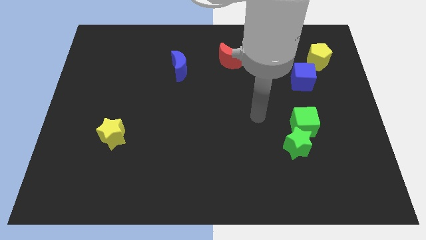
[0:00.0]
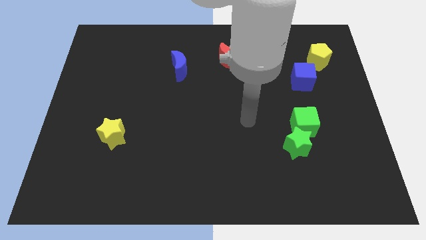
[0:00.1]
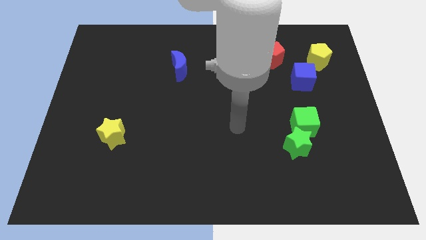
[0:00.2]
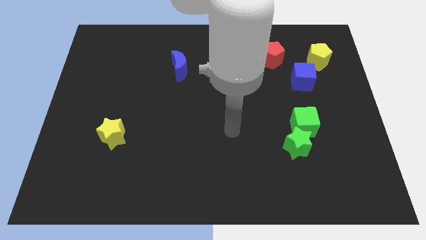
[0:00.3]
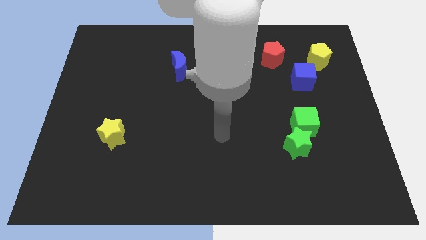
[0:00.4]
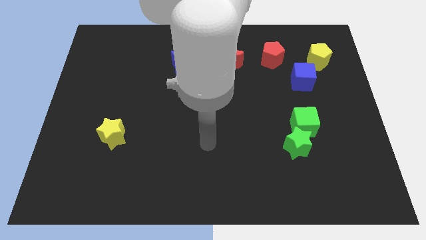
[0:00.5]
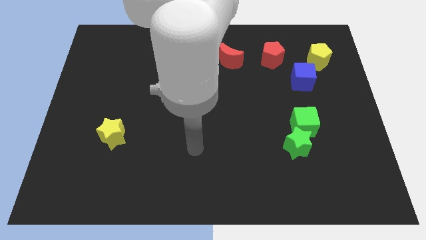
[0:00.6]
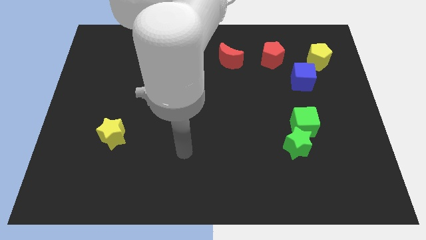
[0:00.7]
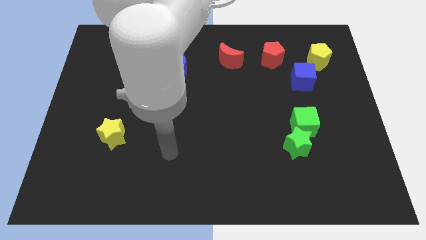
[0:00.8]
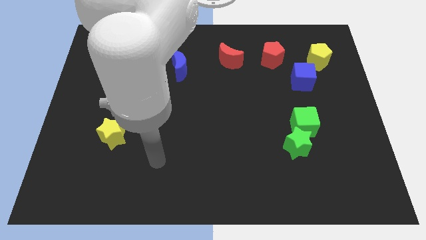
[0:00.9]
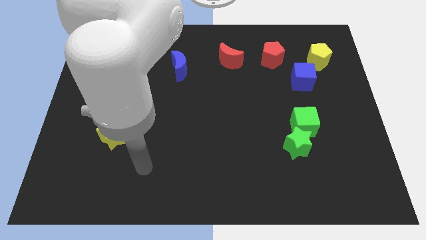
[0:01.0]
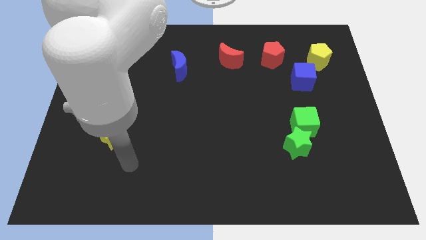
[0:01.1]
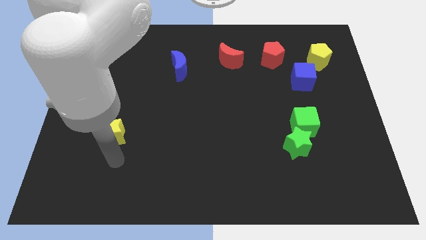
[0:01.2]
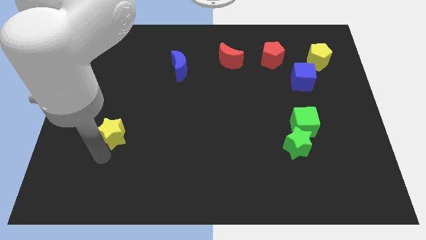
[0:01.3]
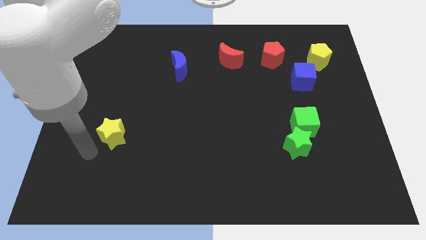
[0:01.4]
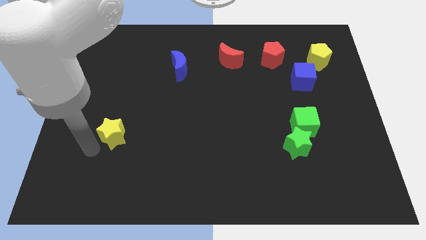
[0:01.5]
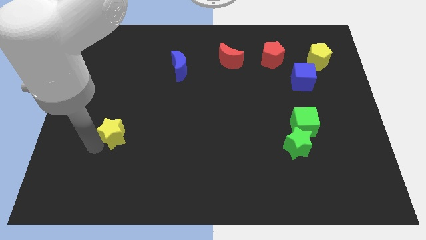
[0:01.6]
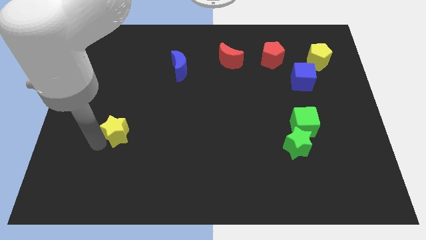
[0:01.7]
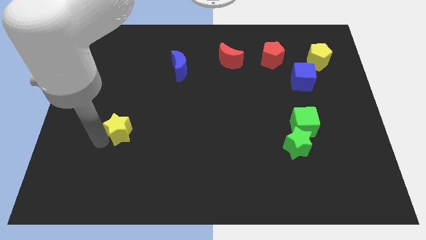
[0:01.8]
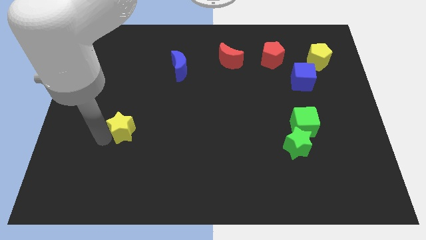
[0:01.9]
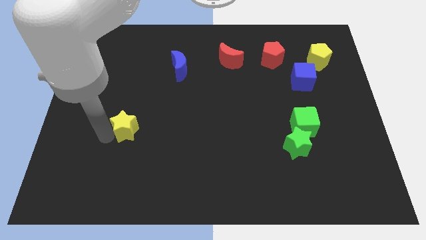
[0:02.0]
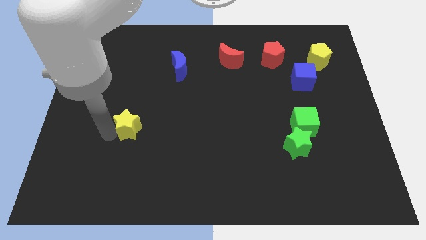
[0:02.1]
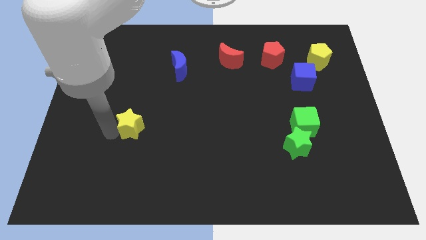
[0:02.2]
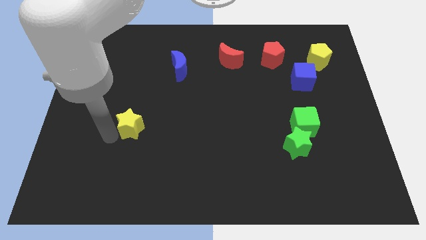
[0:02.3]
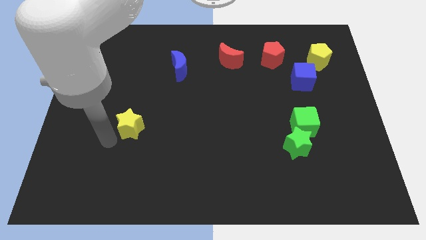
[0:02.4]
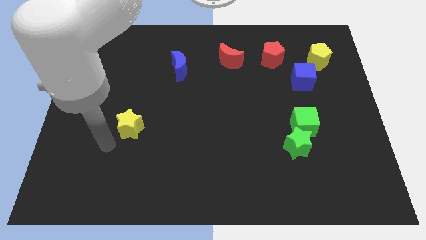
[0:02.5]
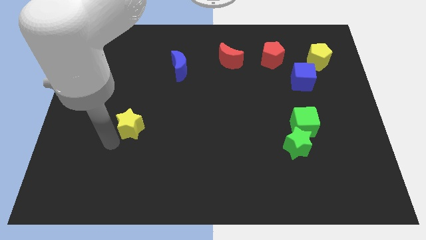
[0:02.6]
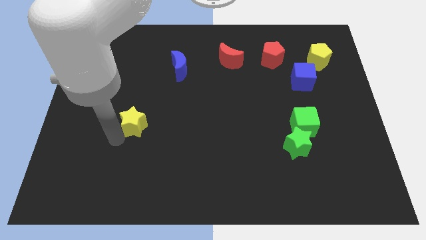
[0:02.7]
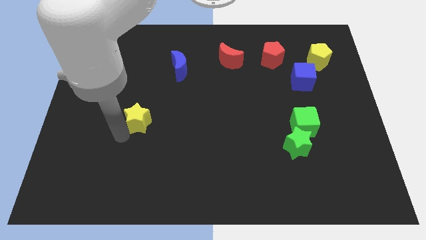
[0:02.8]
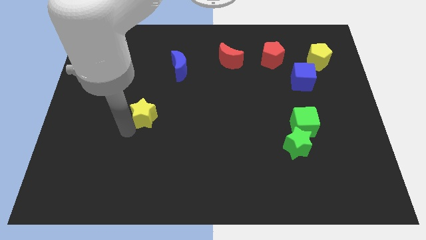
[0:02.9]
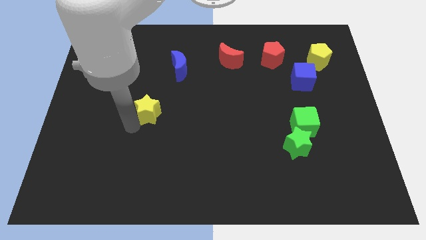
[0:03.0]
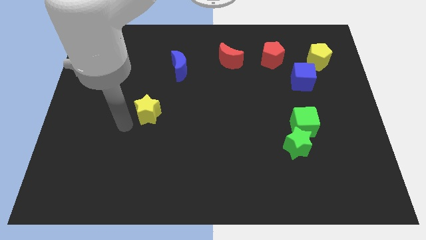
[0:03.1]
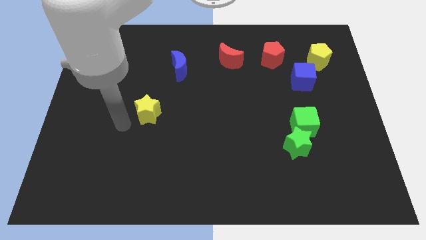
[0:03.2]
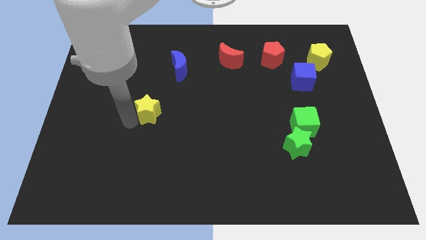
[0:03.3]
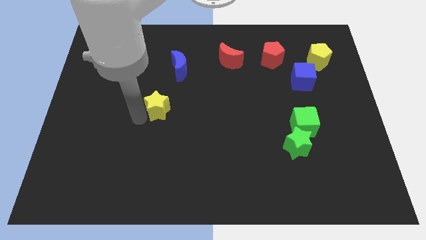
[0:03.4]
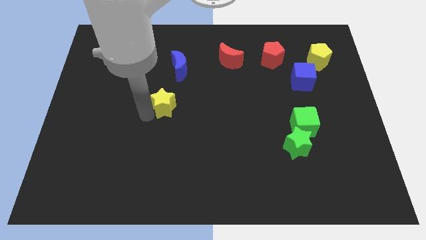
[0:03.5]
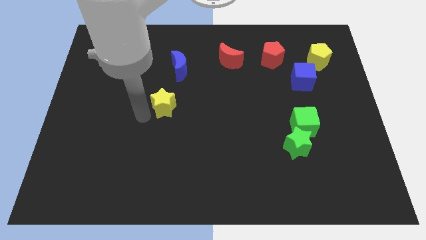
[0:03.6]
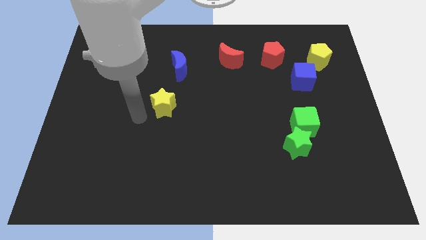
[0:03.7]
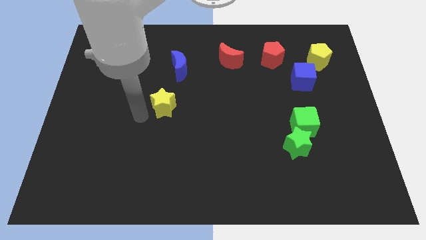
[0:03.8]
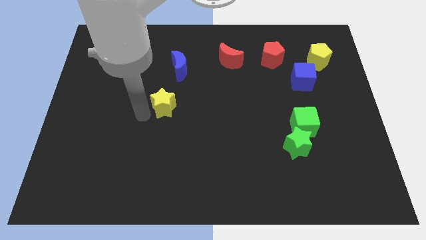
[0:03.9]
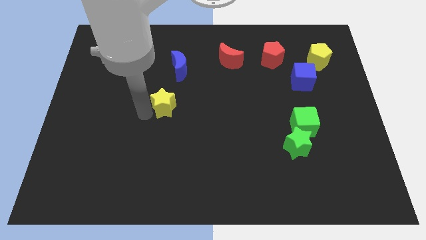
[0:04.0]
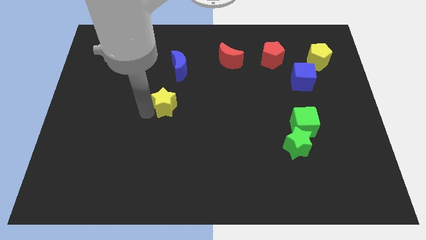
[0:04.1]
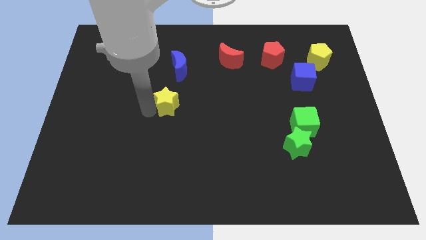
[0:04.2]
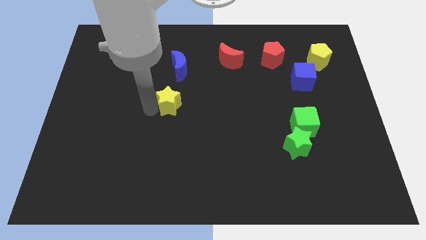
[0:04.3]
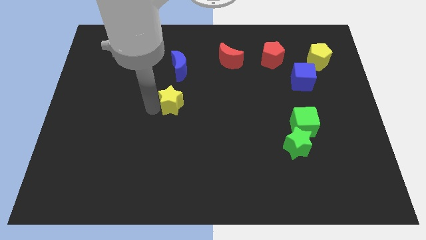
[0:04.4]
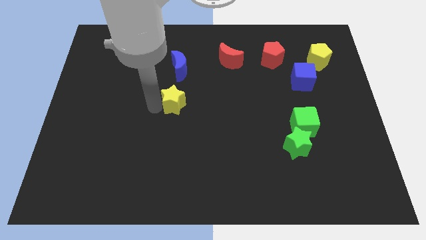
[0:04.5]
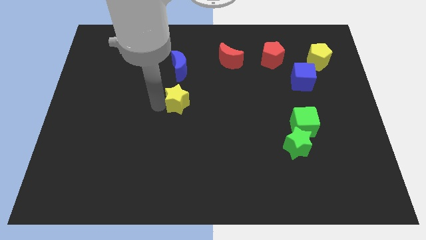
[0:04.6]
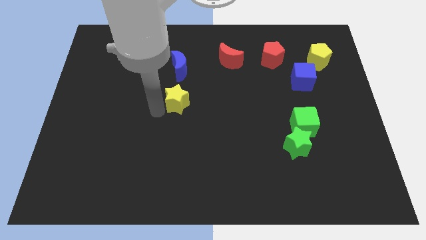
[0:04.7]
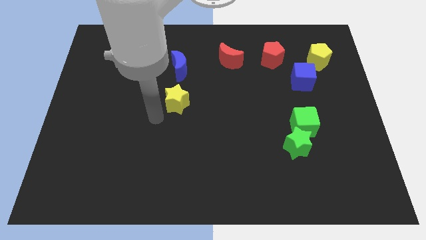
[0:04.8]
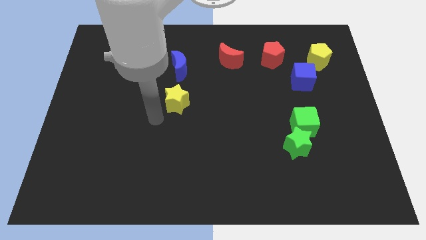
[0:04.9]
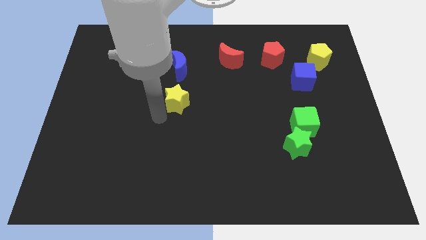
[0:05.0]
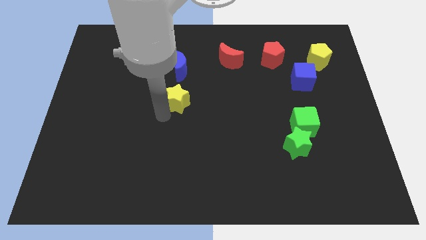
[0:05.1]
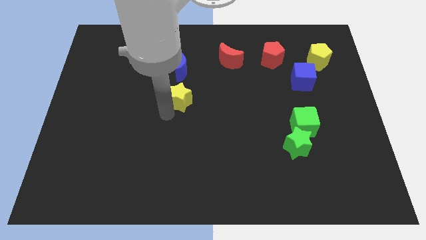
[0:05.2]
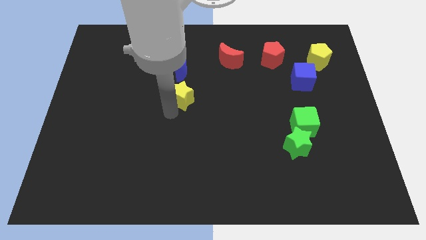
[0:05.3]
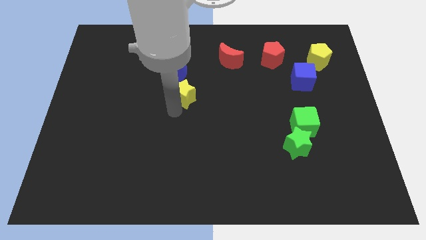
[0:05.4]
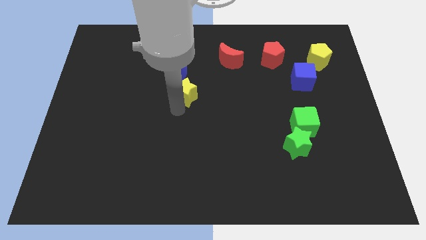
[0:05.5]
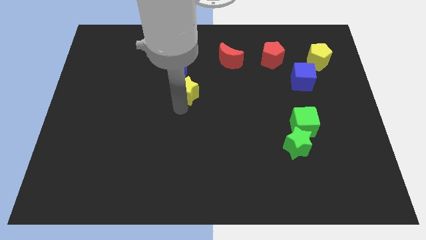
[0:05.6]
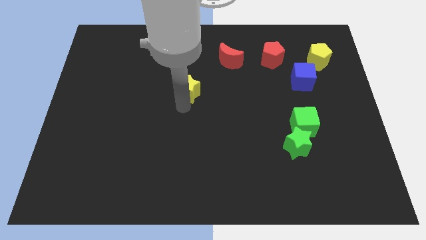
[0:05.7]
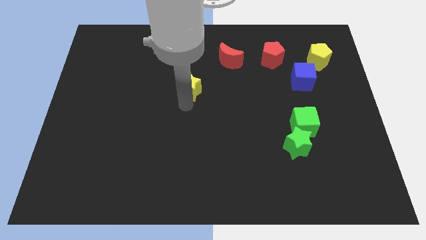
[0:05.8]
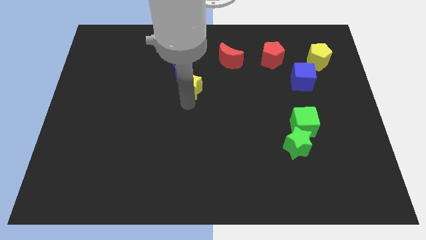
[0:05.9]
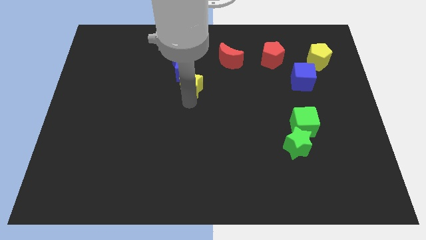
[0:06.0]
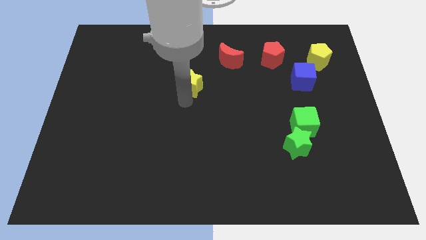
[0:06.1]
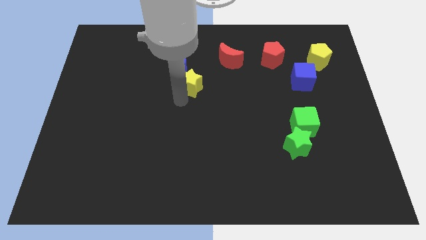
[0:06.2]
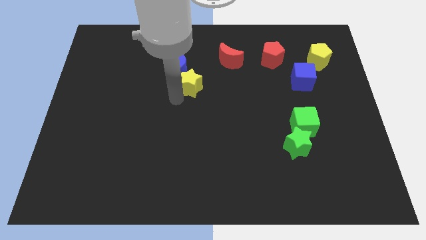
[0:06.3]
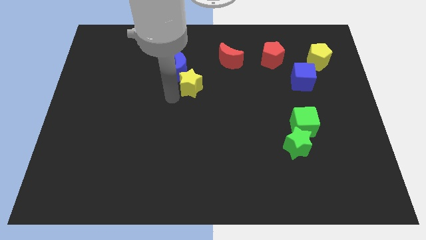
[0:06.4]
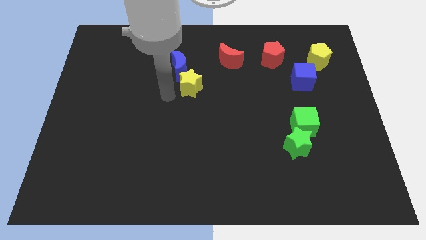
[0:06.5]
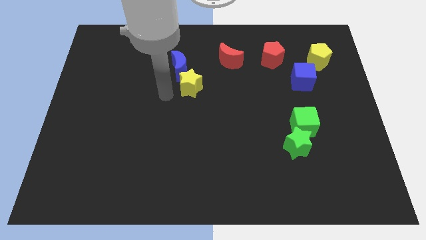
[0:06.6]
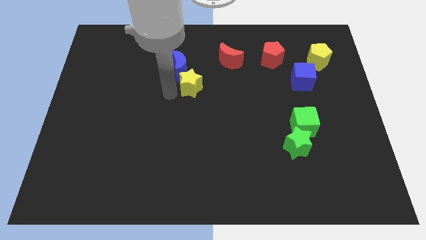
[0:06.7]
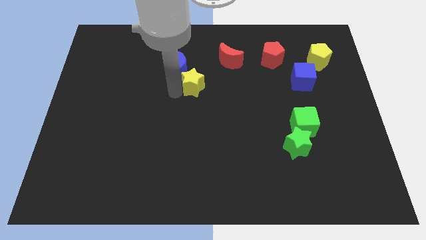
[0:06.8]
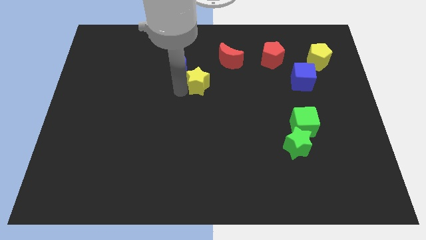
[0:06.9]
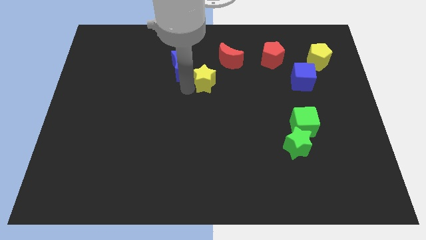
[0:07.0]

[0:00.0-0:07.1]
put the yellow star just right of the blue moon
